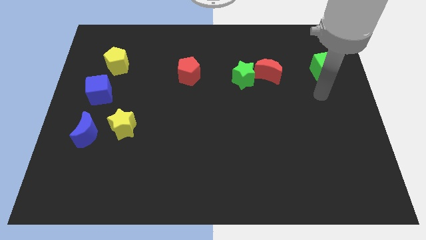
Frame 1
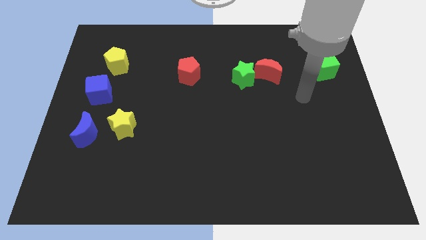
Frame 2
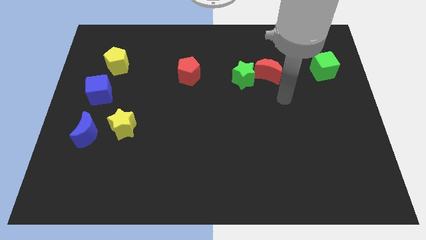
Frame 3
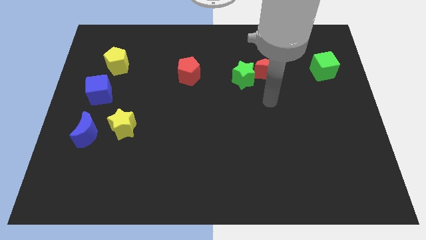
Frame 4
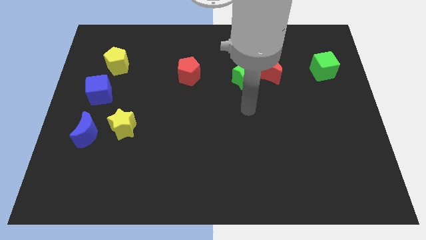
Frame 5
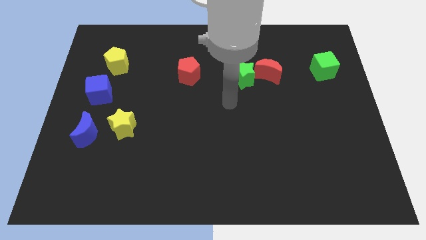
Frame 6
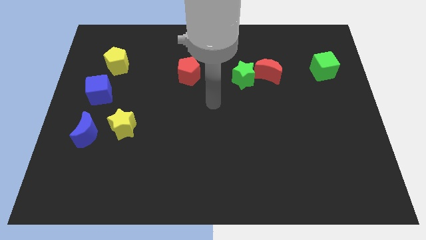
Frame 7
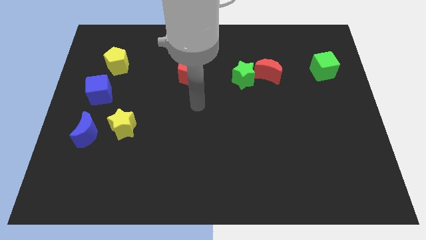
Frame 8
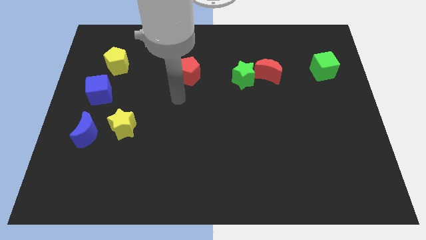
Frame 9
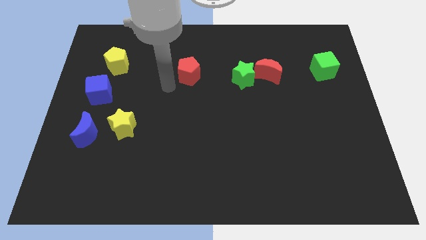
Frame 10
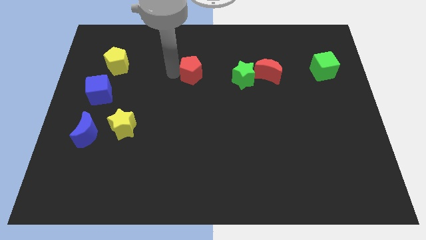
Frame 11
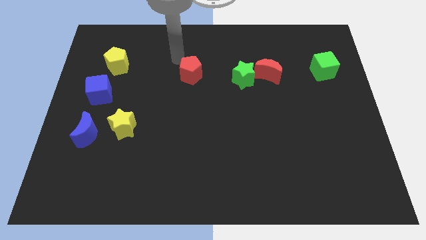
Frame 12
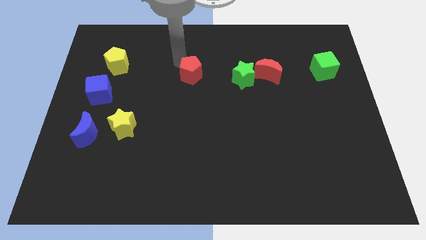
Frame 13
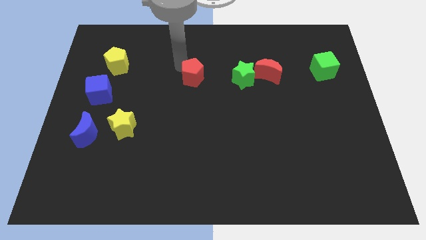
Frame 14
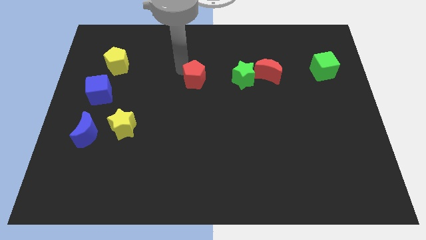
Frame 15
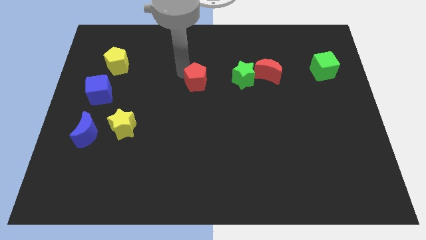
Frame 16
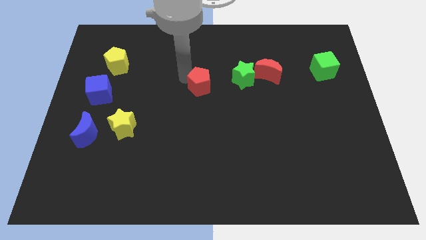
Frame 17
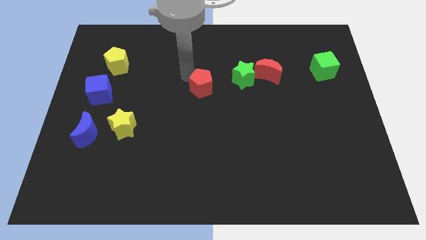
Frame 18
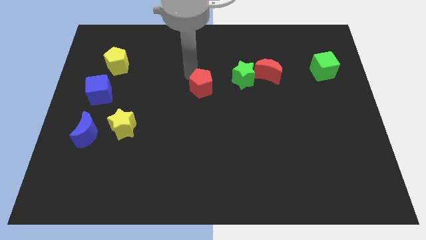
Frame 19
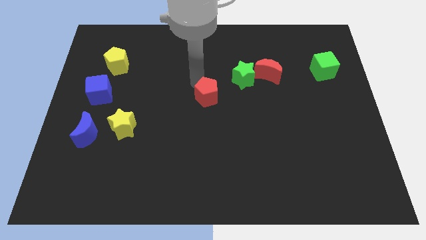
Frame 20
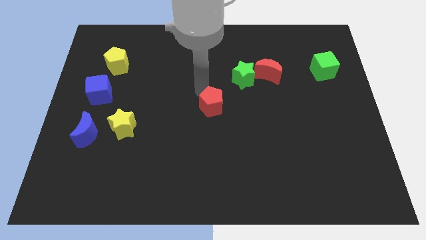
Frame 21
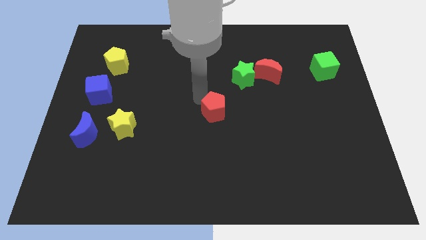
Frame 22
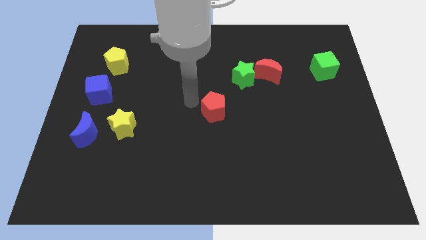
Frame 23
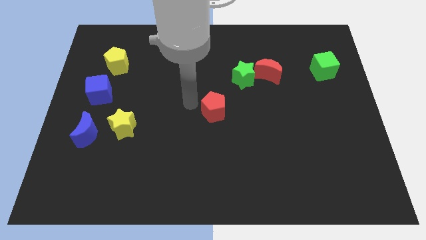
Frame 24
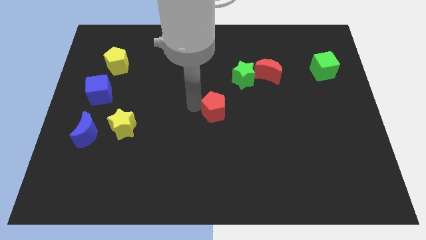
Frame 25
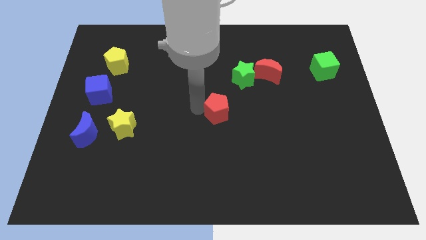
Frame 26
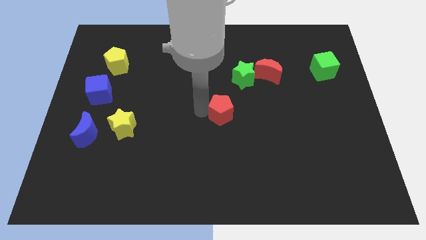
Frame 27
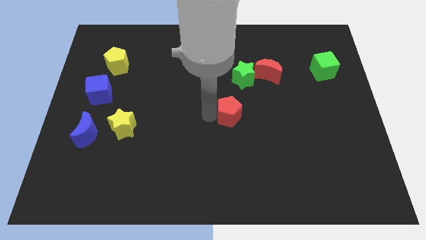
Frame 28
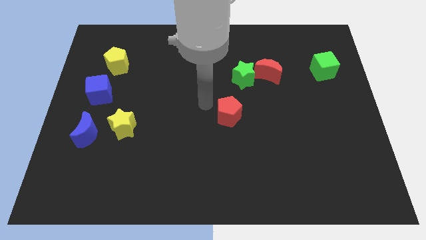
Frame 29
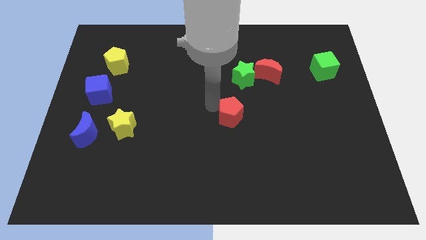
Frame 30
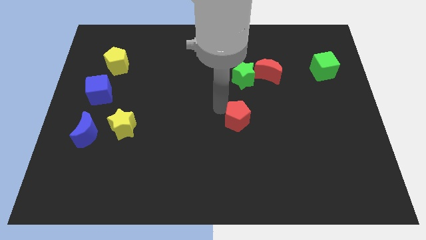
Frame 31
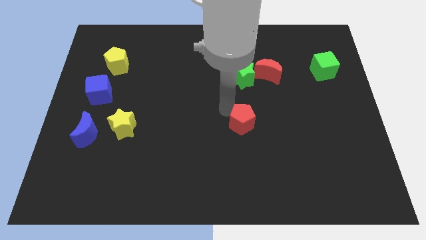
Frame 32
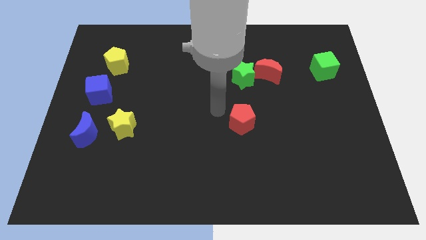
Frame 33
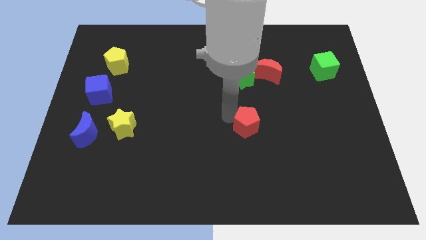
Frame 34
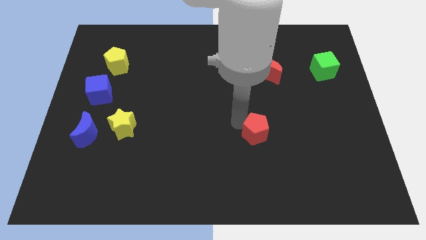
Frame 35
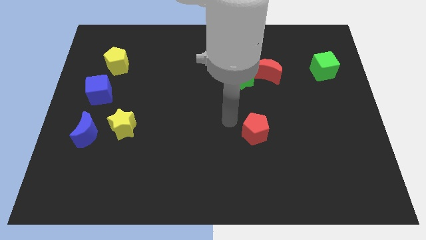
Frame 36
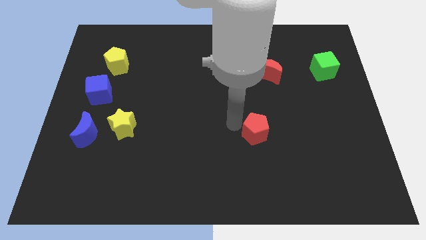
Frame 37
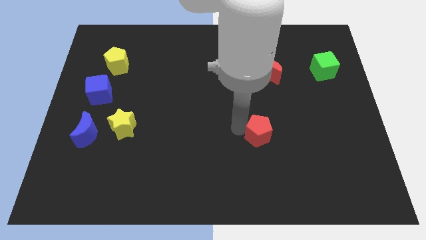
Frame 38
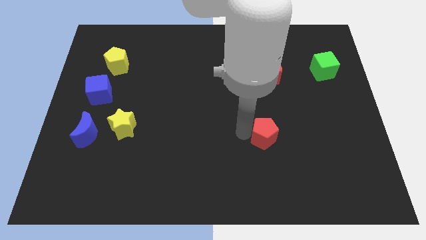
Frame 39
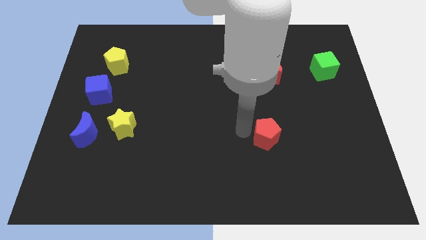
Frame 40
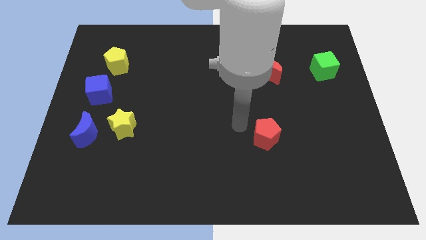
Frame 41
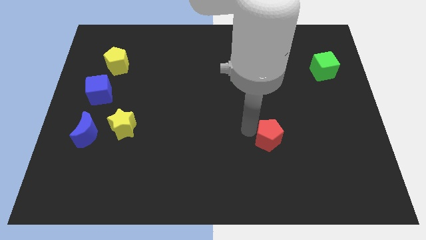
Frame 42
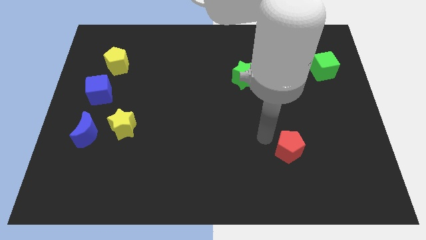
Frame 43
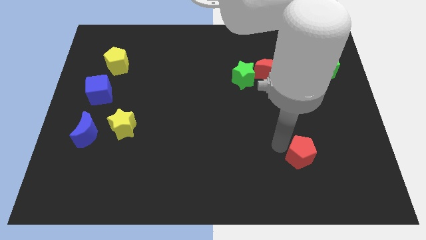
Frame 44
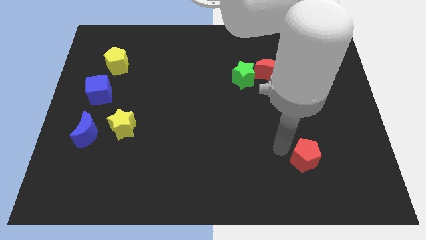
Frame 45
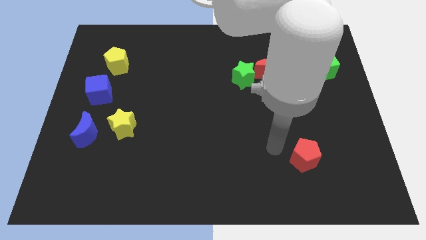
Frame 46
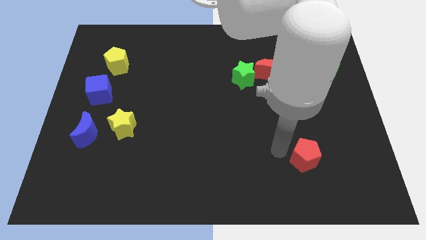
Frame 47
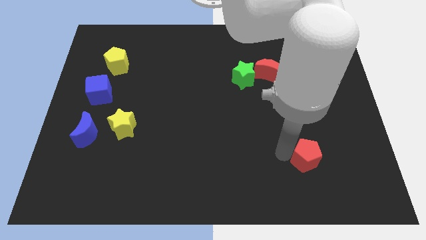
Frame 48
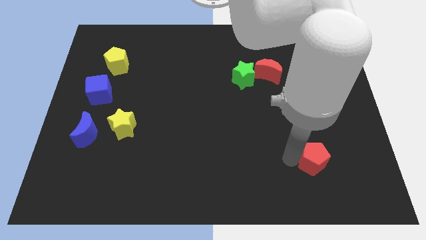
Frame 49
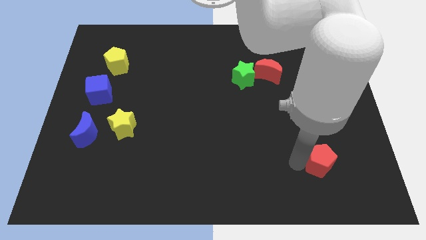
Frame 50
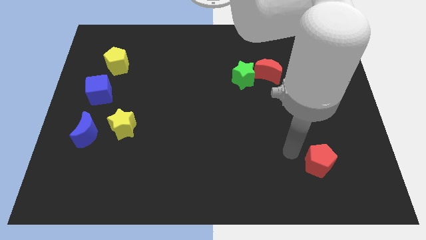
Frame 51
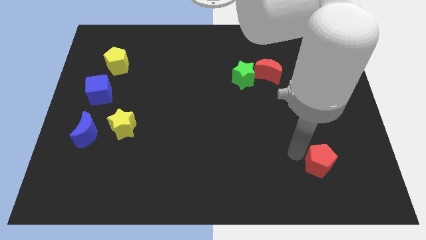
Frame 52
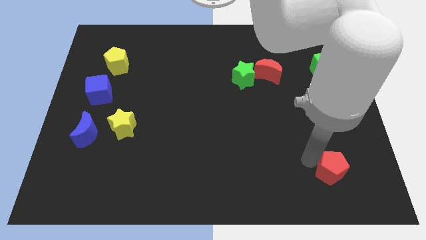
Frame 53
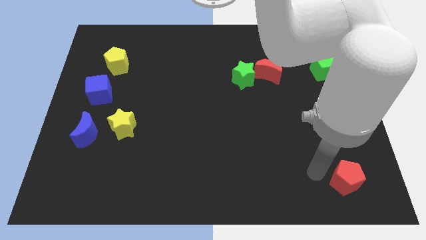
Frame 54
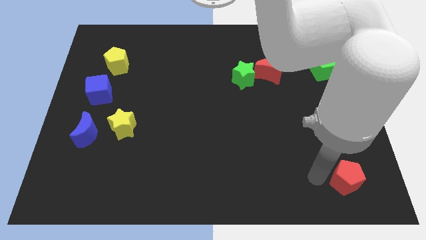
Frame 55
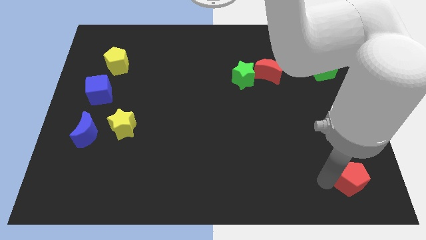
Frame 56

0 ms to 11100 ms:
slide the red pentagon to the bottom right of the board

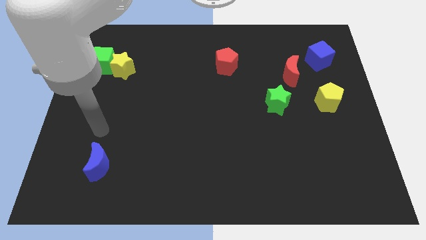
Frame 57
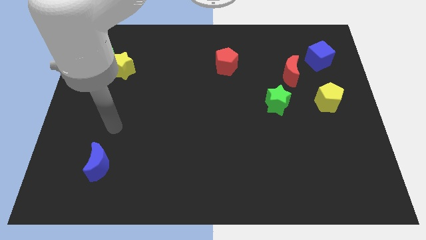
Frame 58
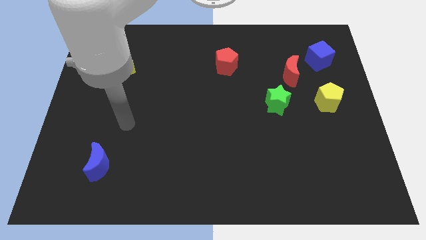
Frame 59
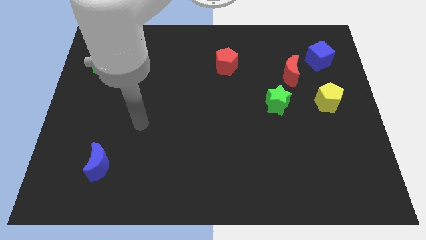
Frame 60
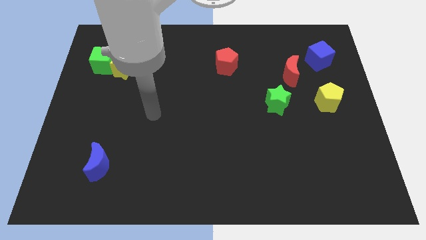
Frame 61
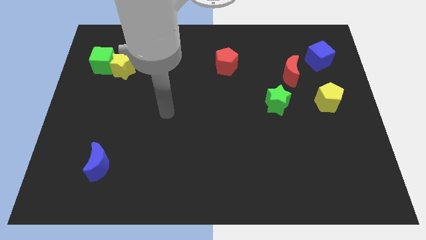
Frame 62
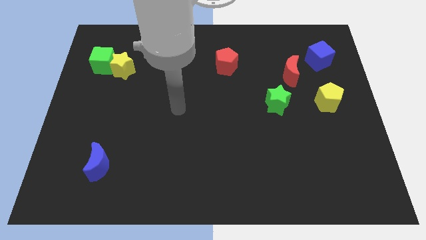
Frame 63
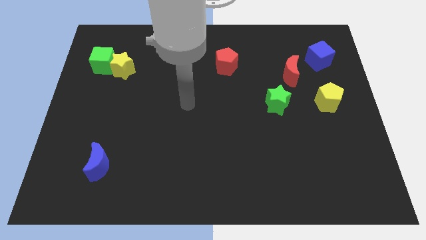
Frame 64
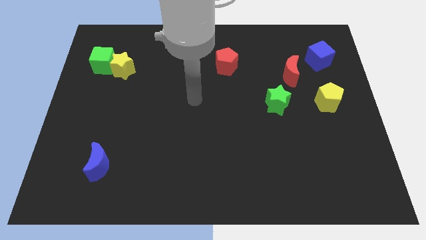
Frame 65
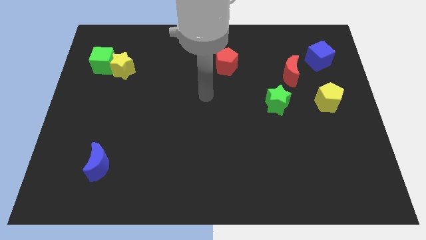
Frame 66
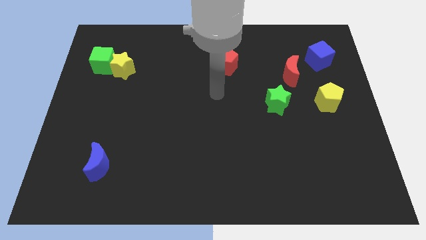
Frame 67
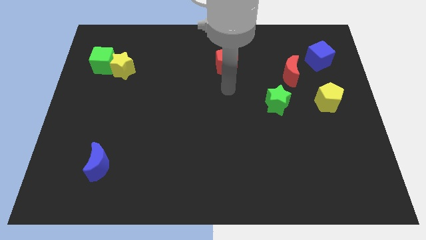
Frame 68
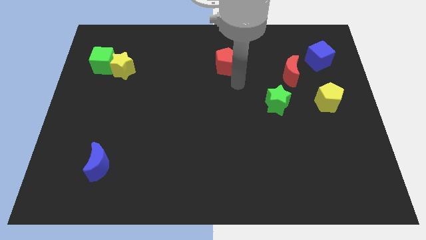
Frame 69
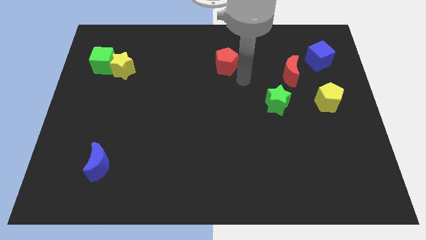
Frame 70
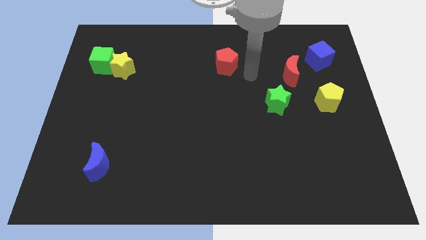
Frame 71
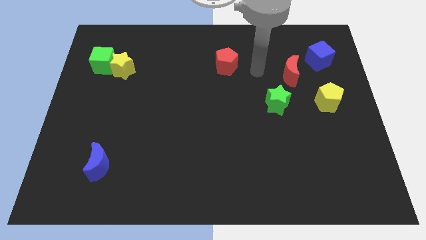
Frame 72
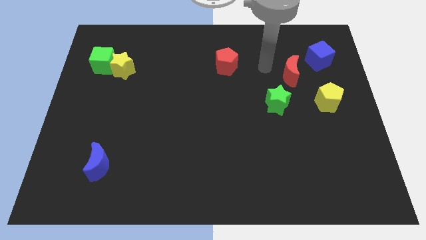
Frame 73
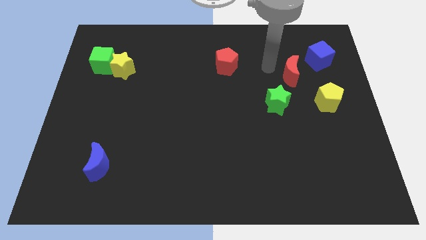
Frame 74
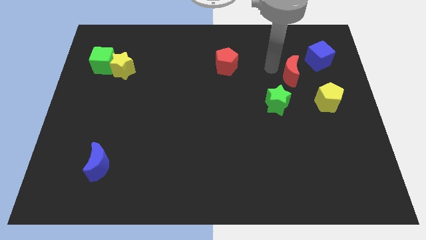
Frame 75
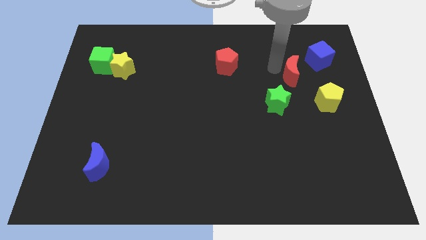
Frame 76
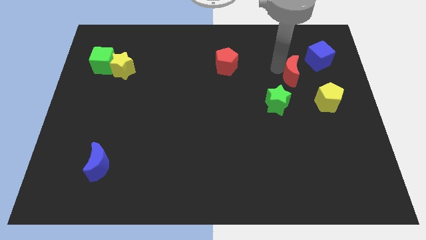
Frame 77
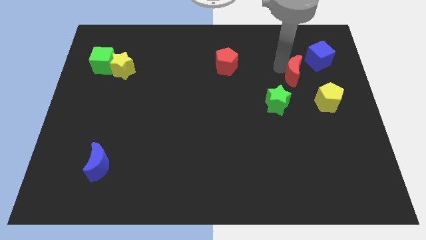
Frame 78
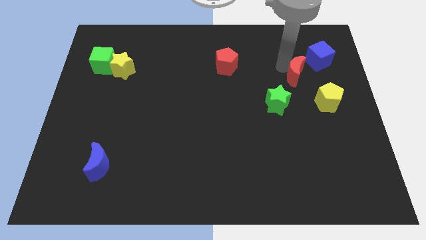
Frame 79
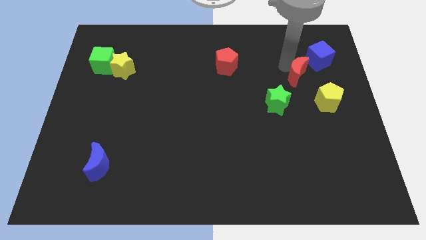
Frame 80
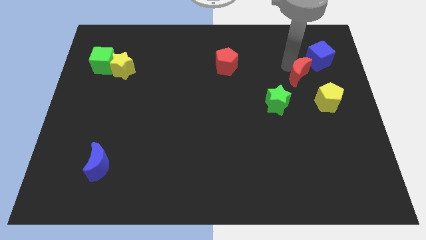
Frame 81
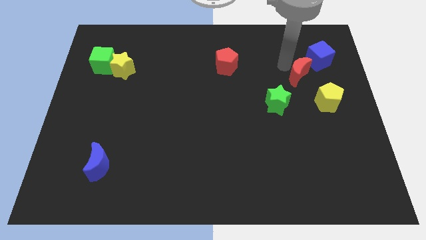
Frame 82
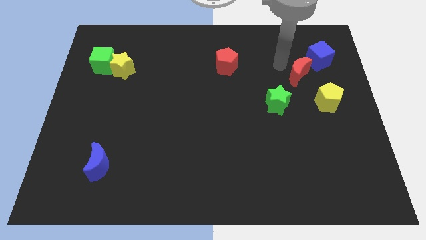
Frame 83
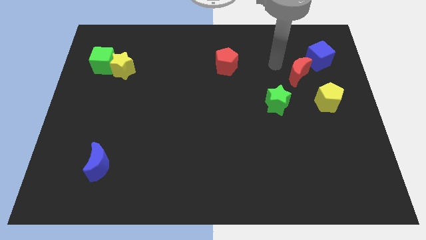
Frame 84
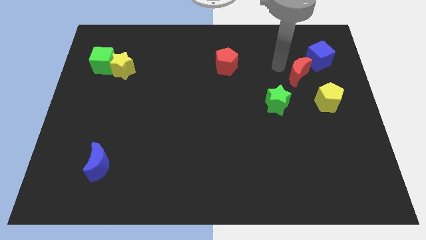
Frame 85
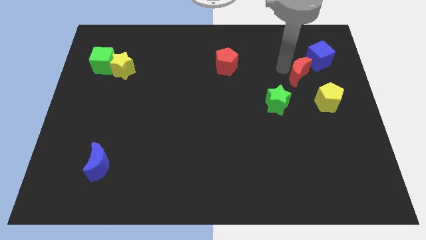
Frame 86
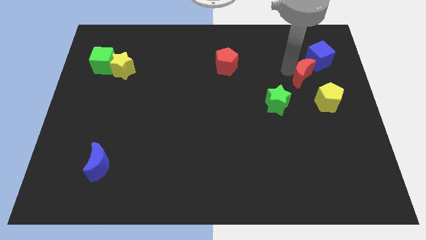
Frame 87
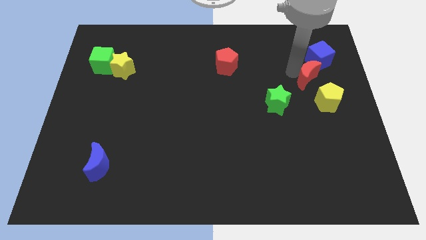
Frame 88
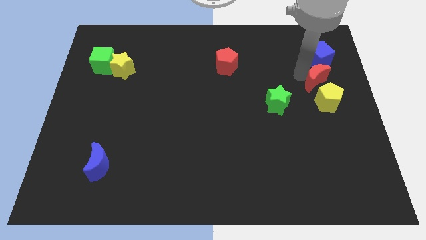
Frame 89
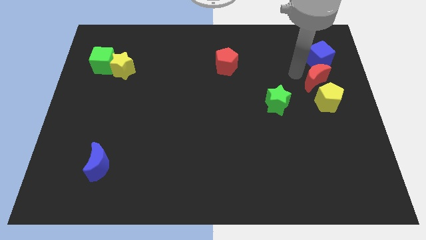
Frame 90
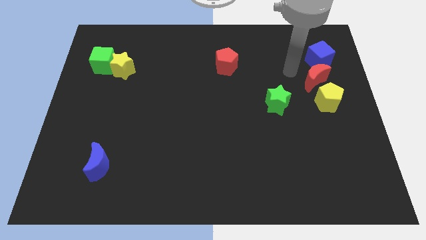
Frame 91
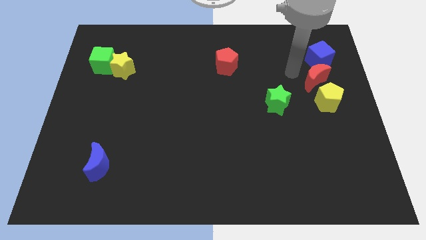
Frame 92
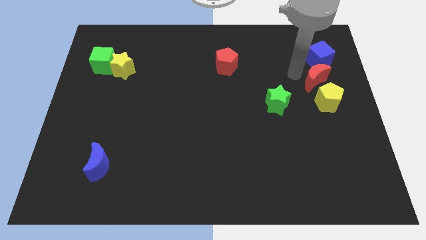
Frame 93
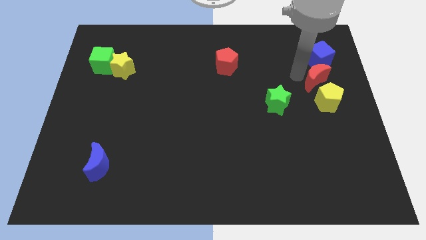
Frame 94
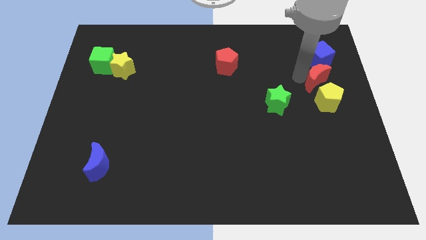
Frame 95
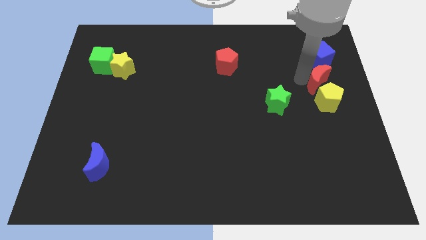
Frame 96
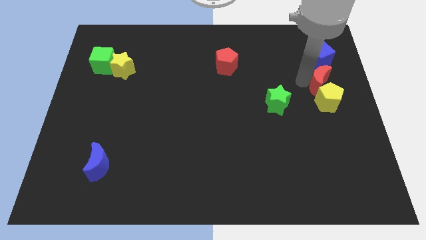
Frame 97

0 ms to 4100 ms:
slide the red moon to the right side of the board
